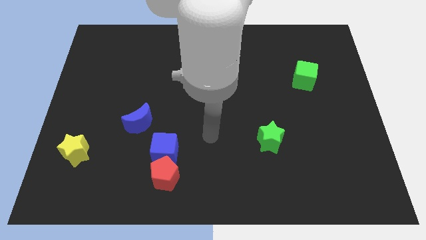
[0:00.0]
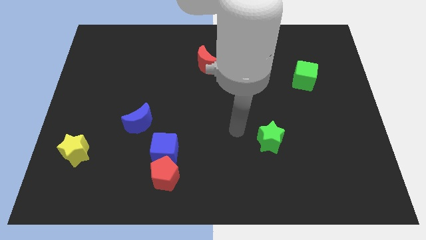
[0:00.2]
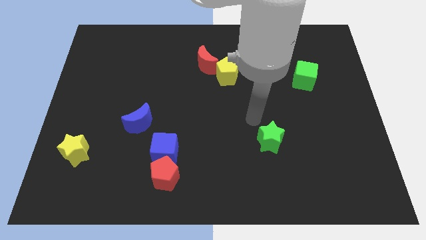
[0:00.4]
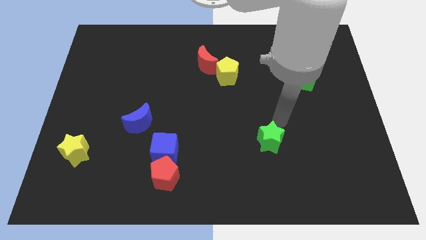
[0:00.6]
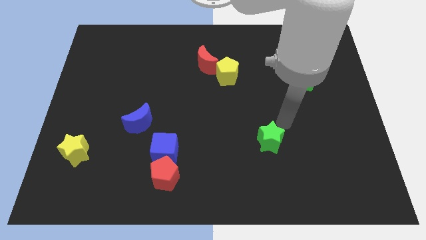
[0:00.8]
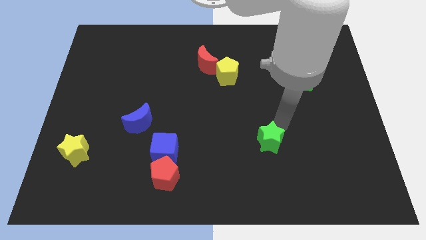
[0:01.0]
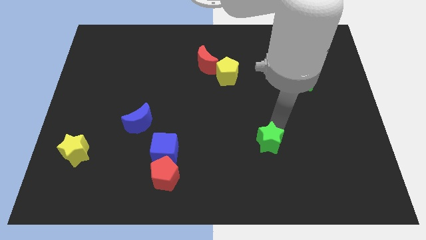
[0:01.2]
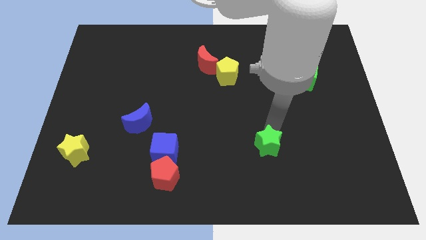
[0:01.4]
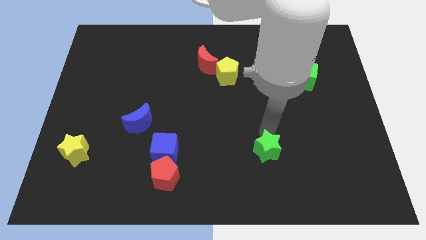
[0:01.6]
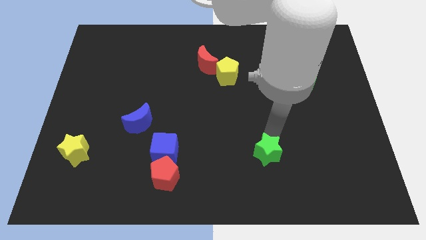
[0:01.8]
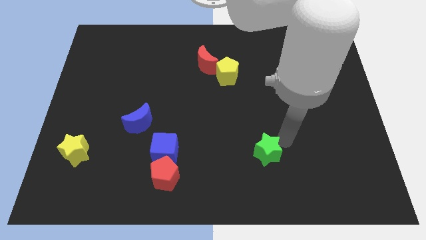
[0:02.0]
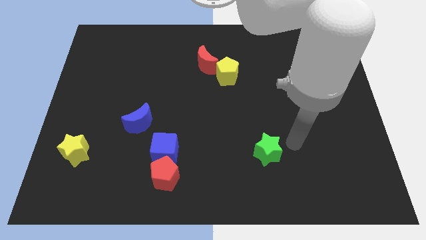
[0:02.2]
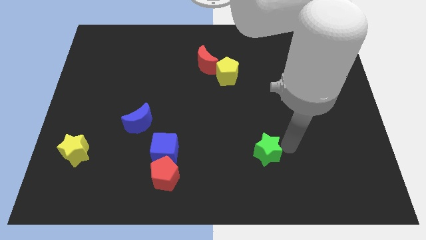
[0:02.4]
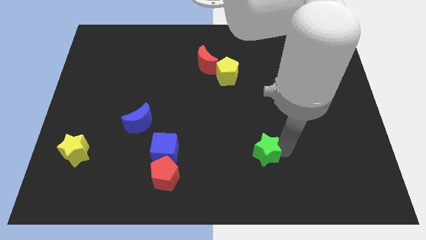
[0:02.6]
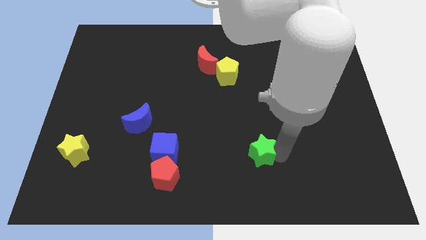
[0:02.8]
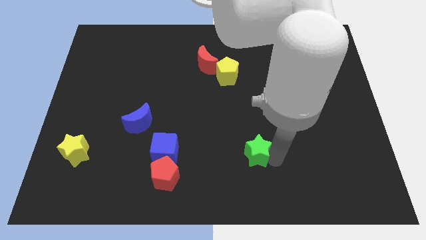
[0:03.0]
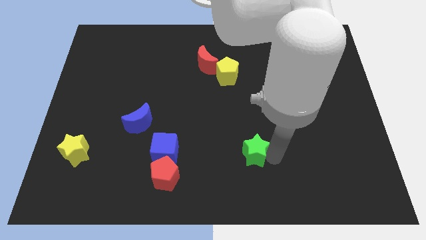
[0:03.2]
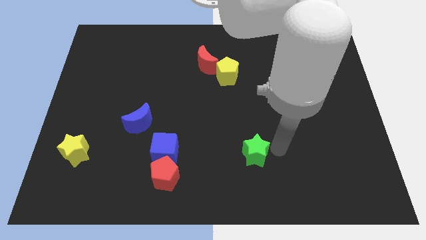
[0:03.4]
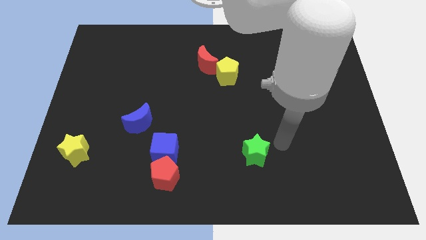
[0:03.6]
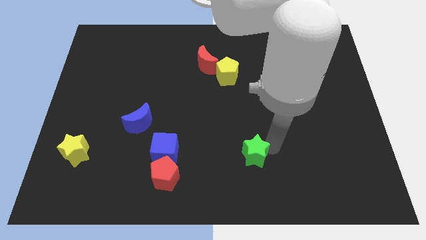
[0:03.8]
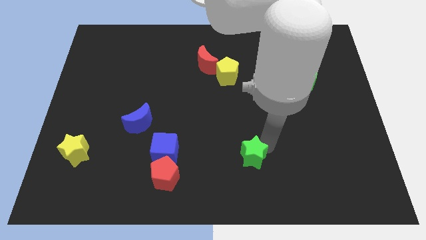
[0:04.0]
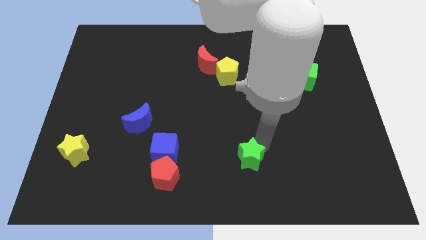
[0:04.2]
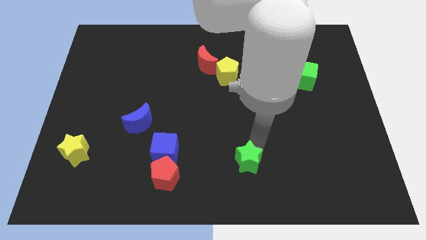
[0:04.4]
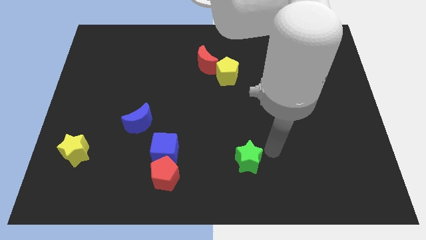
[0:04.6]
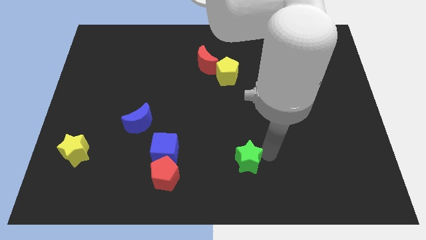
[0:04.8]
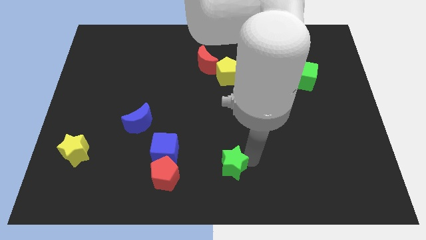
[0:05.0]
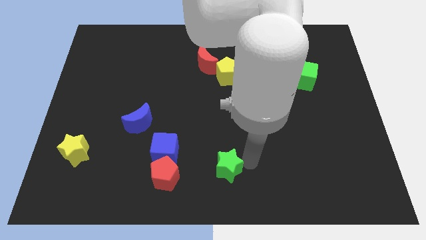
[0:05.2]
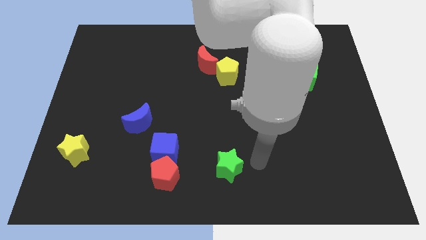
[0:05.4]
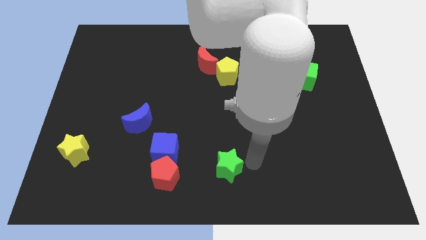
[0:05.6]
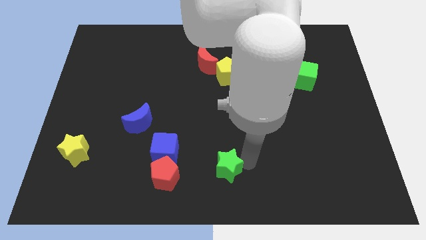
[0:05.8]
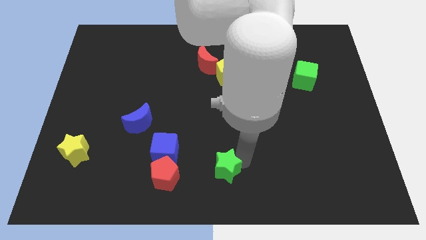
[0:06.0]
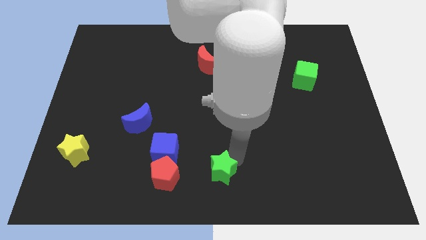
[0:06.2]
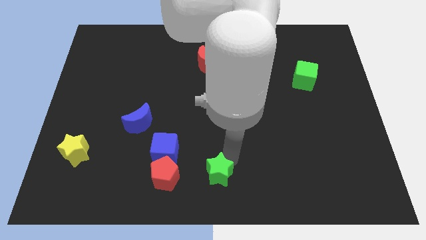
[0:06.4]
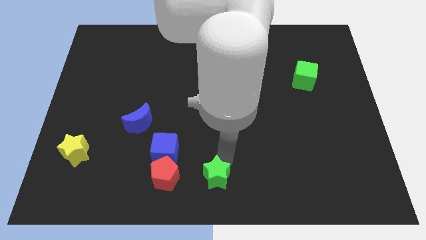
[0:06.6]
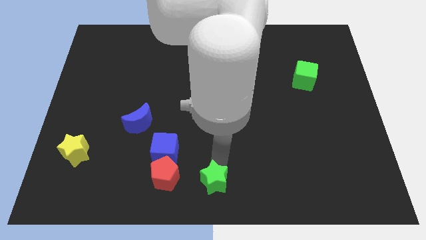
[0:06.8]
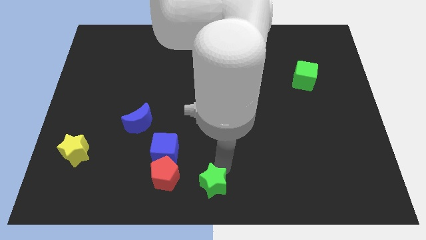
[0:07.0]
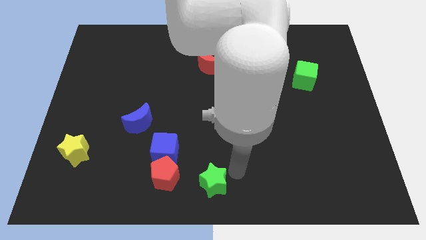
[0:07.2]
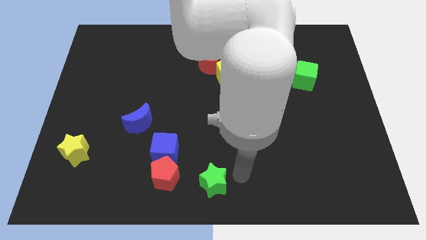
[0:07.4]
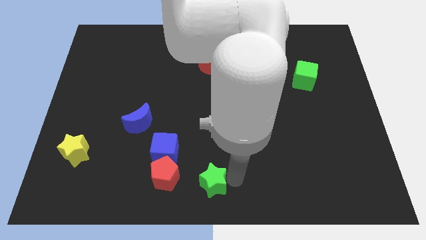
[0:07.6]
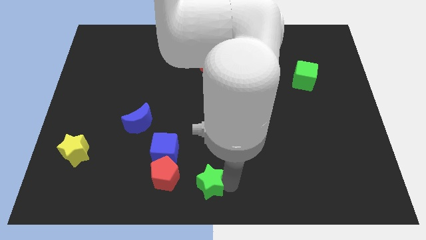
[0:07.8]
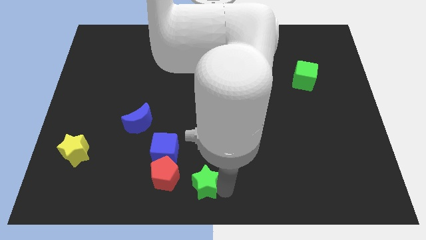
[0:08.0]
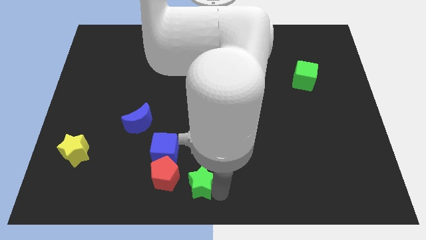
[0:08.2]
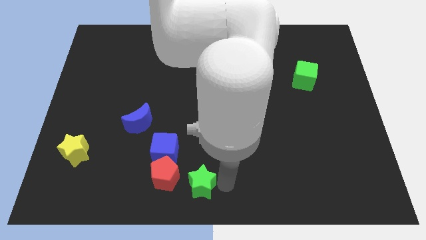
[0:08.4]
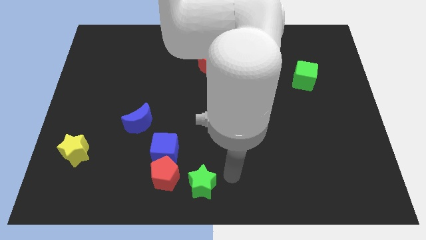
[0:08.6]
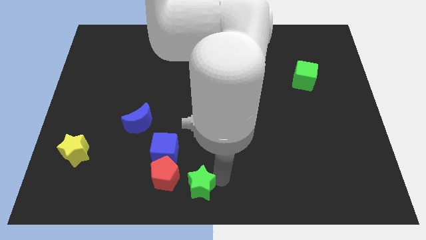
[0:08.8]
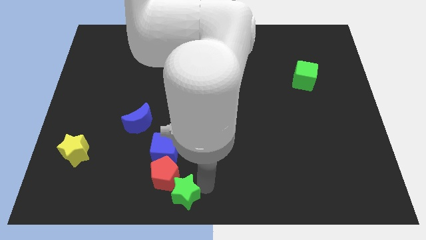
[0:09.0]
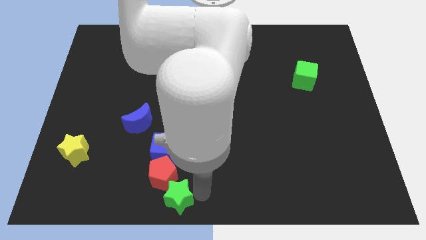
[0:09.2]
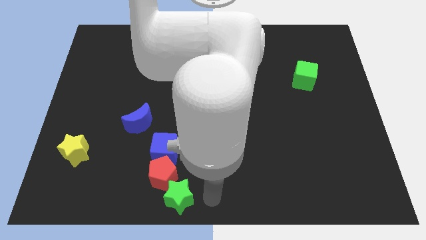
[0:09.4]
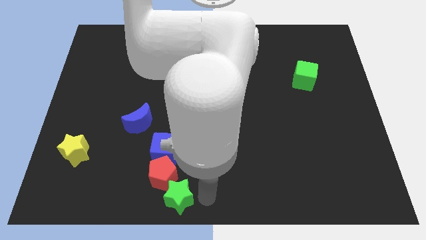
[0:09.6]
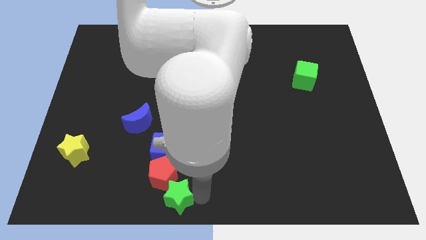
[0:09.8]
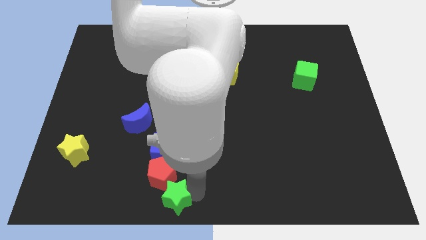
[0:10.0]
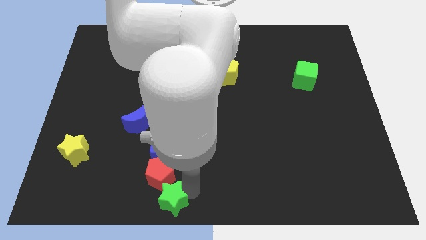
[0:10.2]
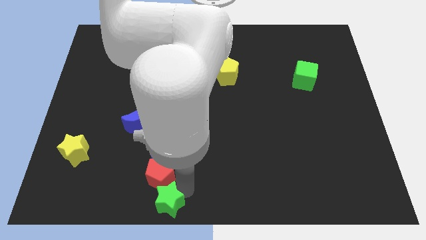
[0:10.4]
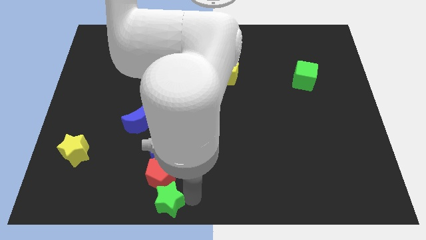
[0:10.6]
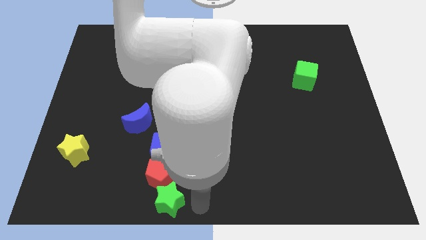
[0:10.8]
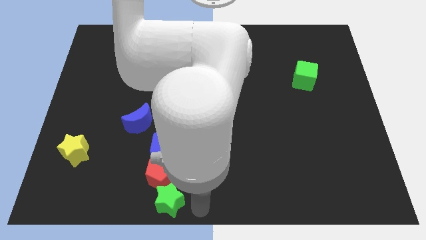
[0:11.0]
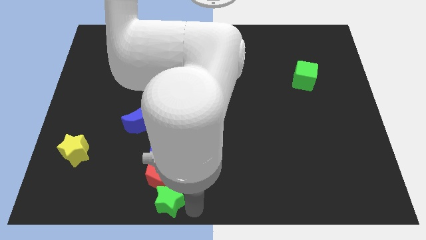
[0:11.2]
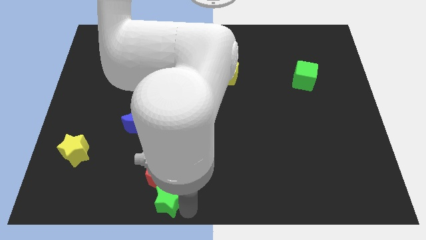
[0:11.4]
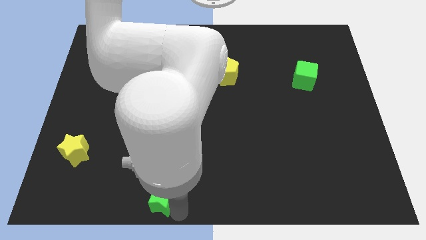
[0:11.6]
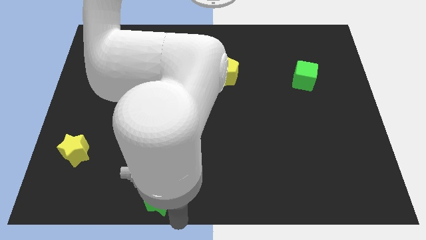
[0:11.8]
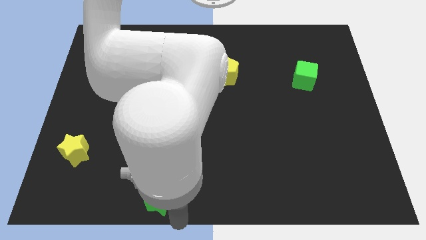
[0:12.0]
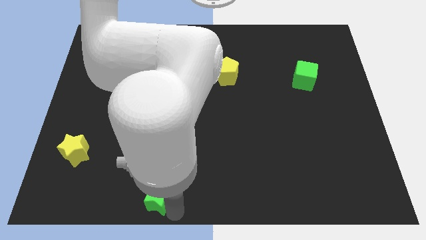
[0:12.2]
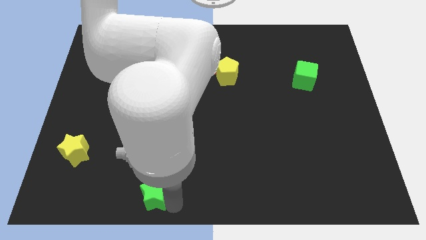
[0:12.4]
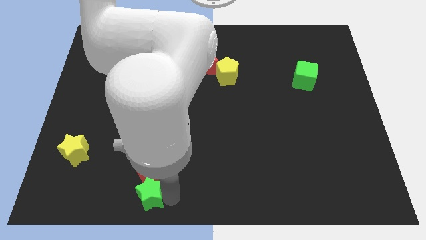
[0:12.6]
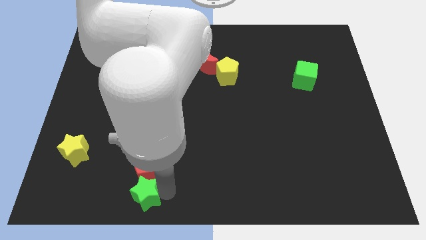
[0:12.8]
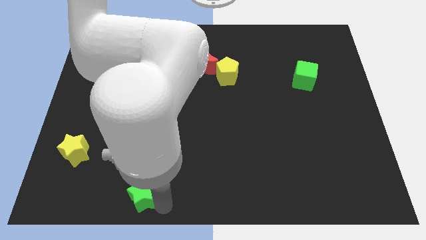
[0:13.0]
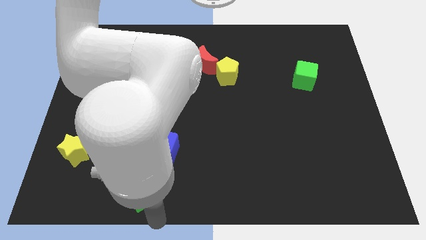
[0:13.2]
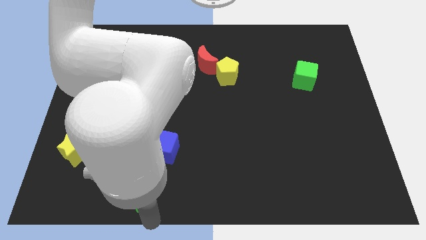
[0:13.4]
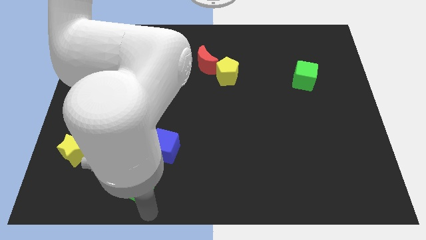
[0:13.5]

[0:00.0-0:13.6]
put the green star to the bottom left side of the blue cube

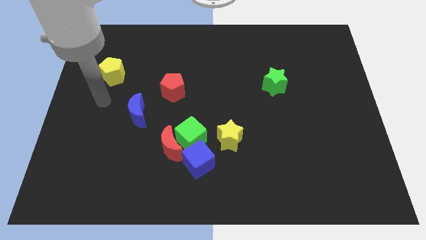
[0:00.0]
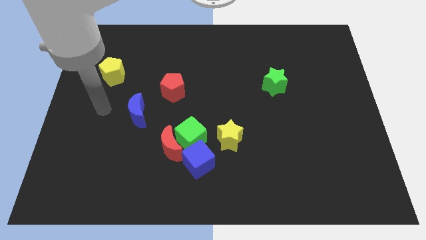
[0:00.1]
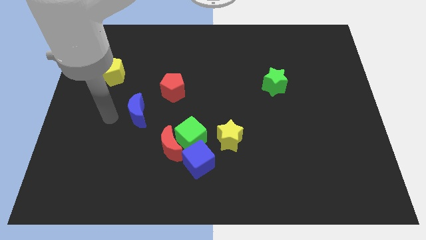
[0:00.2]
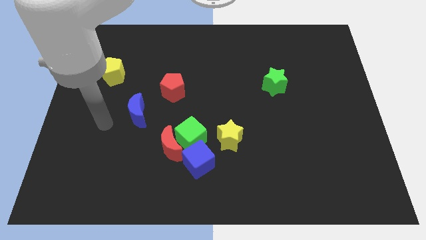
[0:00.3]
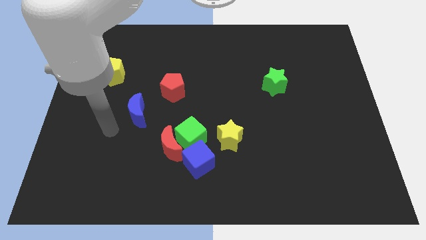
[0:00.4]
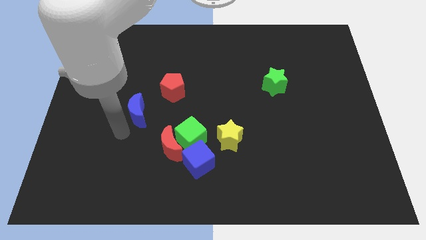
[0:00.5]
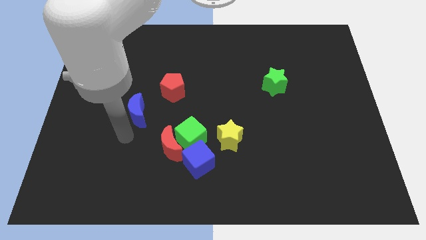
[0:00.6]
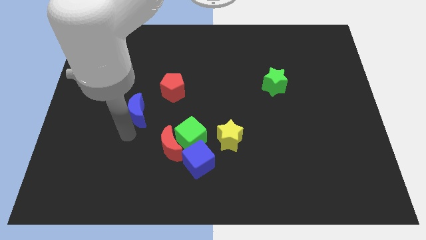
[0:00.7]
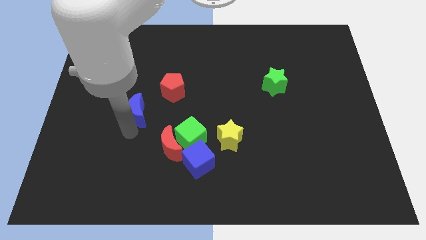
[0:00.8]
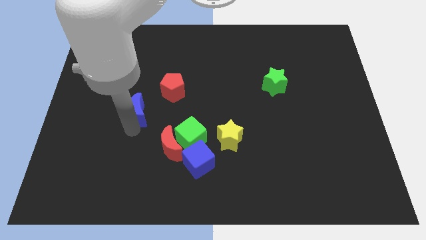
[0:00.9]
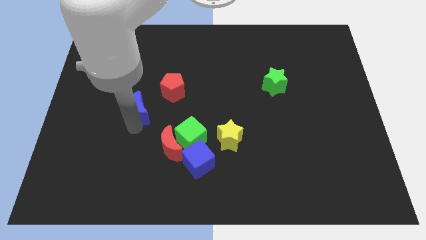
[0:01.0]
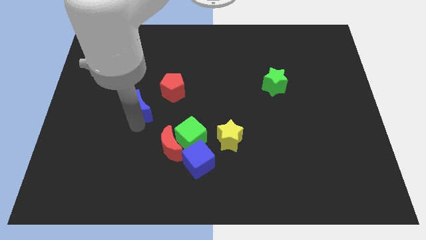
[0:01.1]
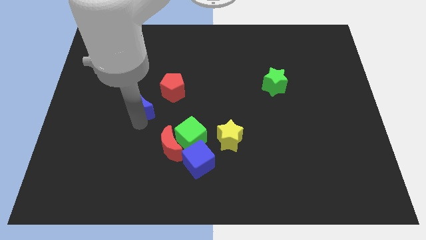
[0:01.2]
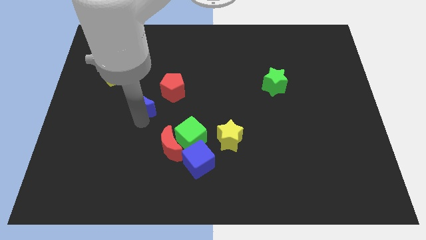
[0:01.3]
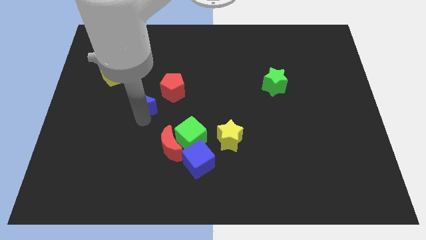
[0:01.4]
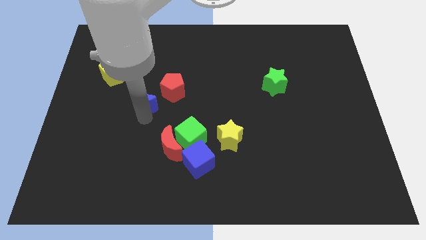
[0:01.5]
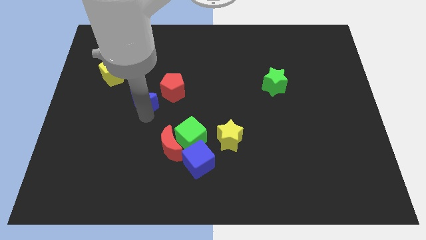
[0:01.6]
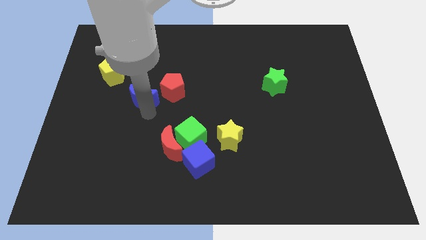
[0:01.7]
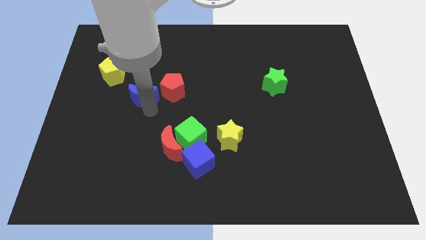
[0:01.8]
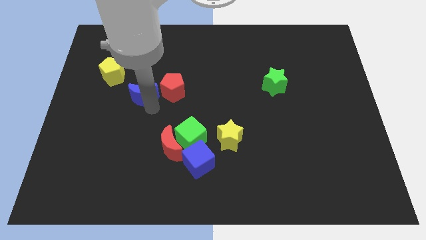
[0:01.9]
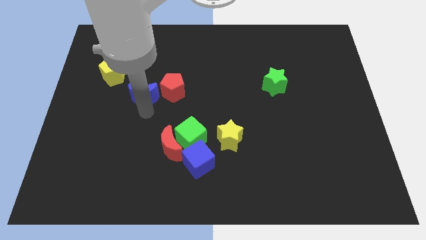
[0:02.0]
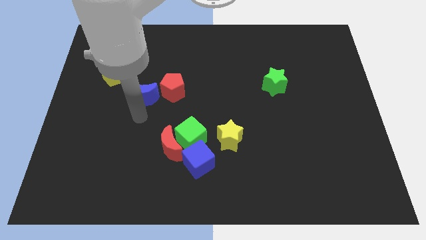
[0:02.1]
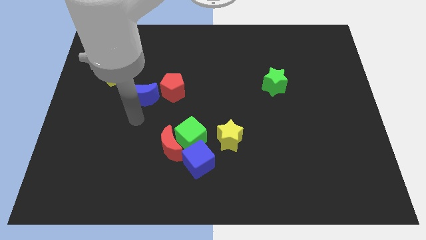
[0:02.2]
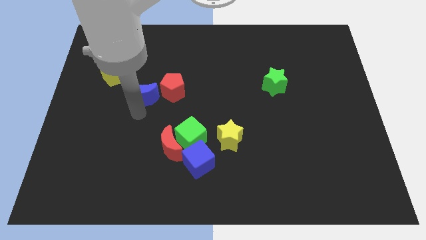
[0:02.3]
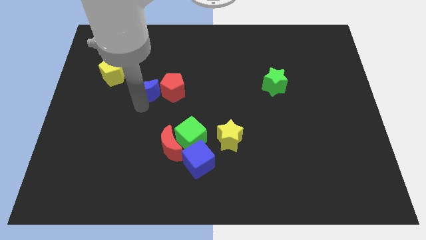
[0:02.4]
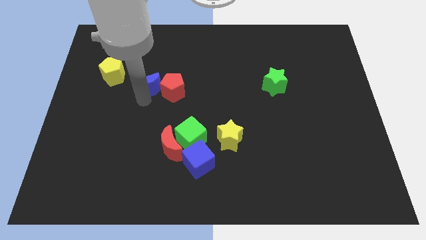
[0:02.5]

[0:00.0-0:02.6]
put the blue moon to the right of the yellow pentagon
